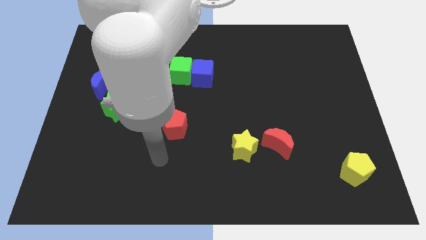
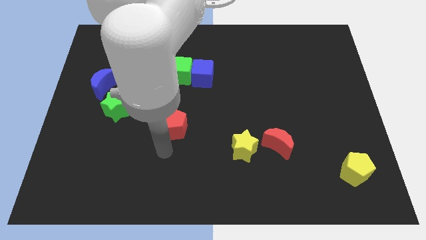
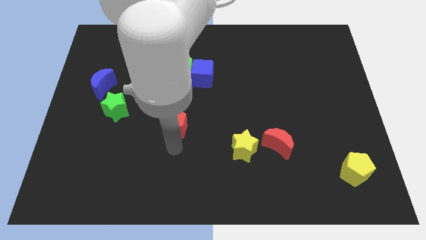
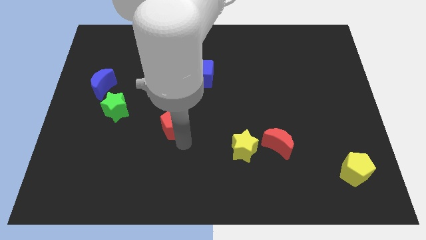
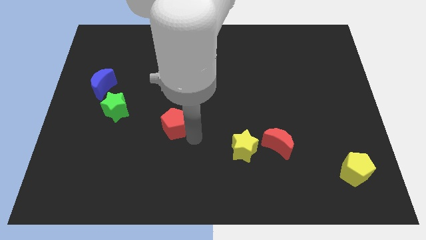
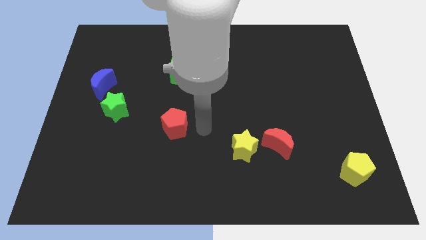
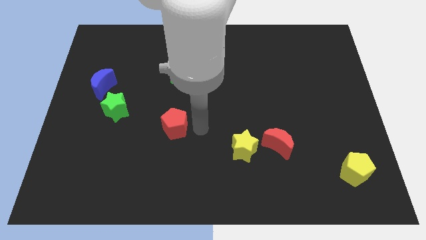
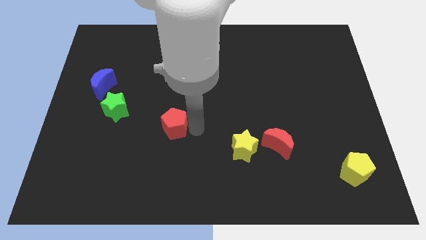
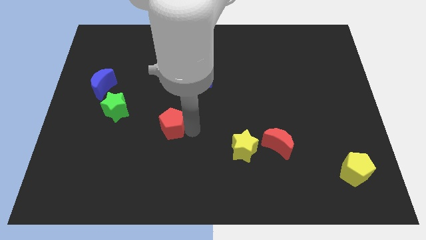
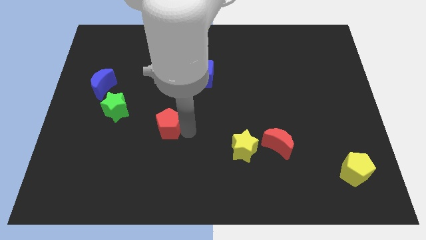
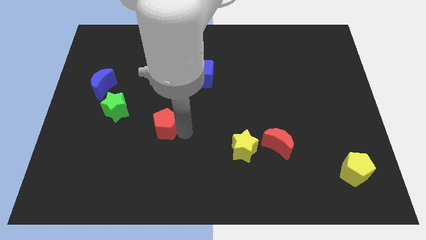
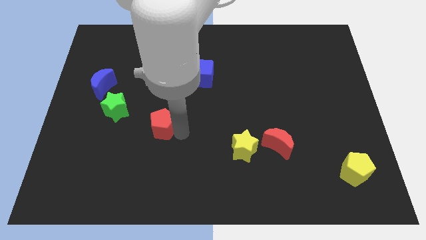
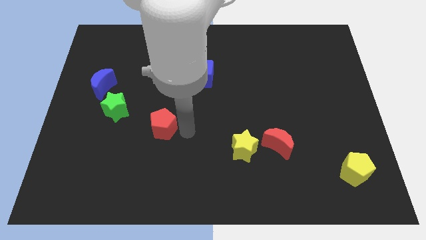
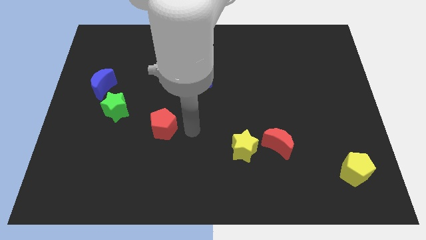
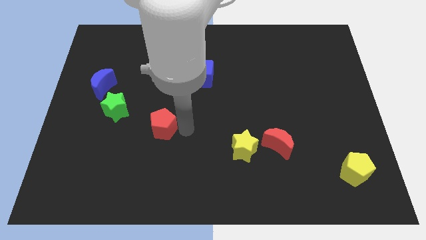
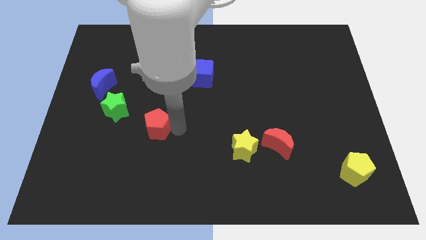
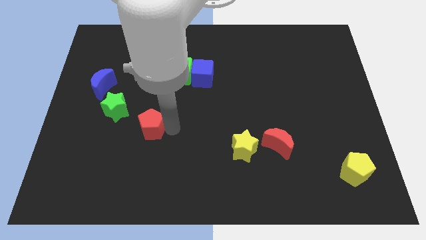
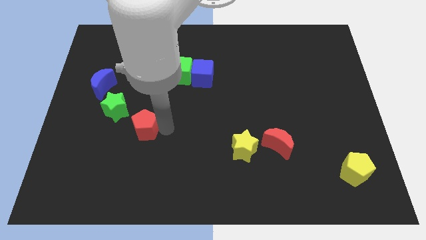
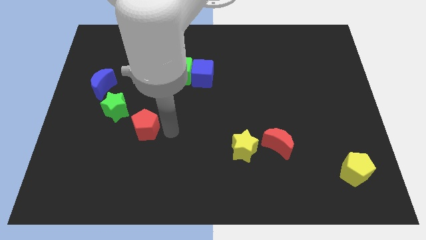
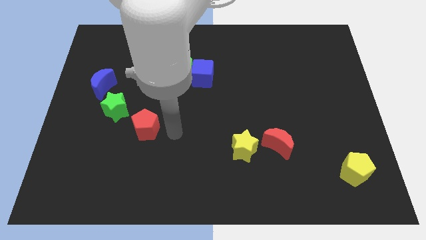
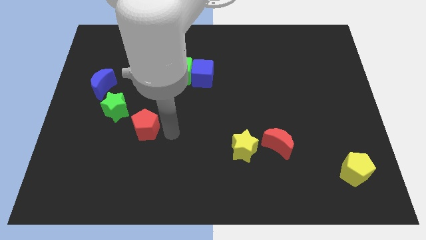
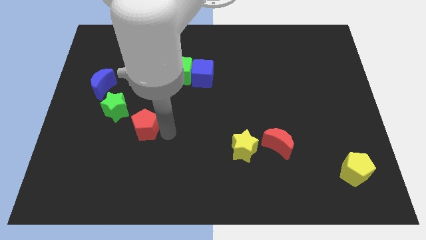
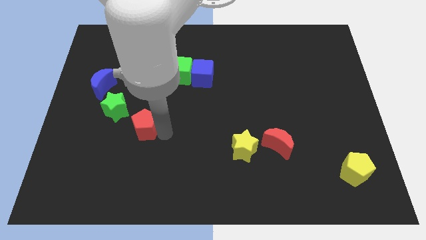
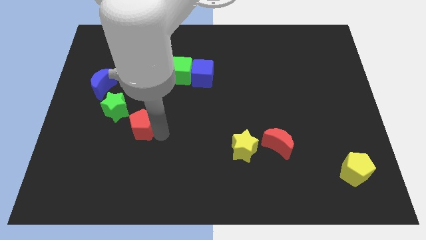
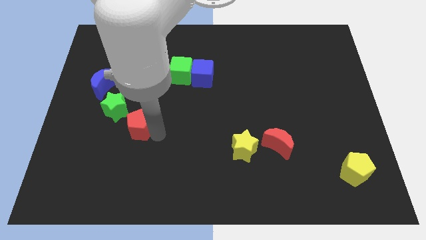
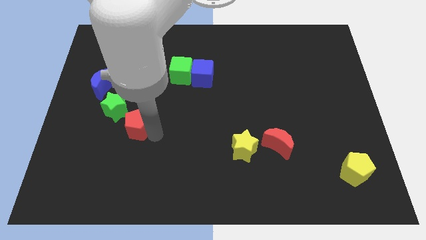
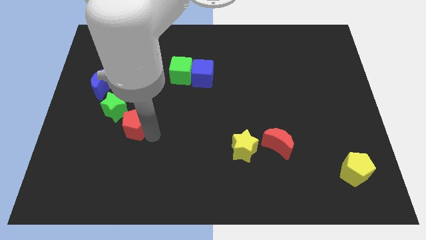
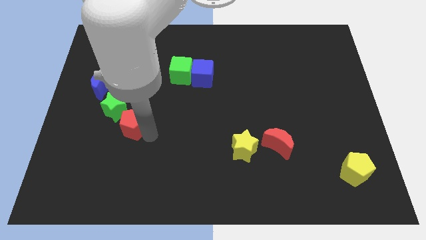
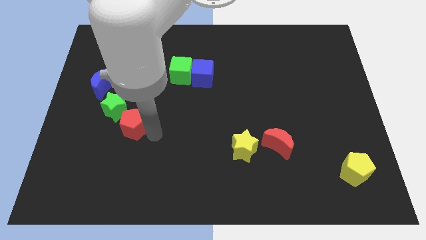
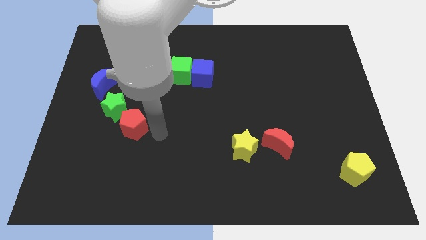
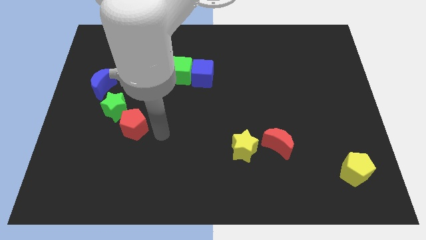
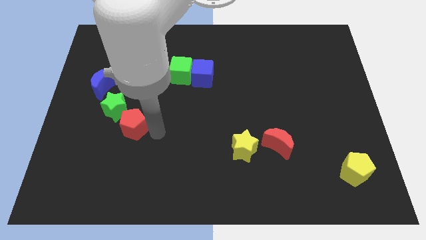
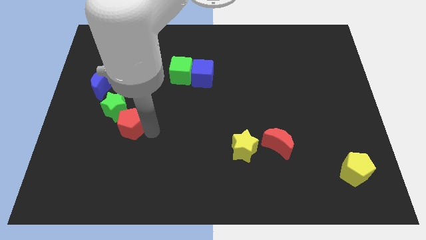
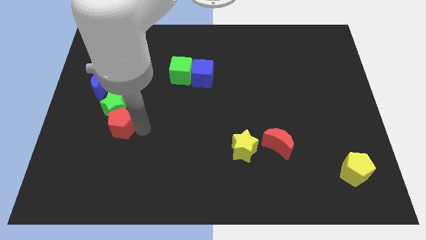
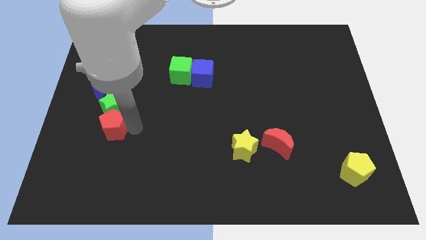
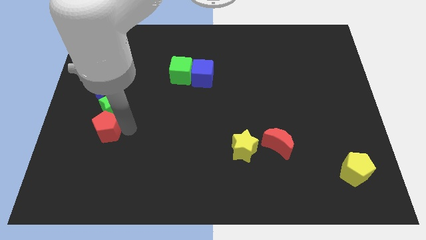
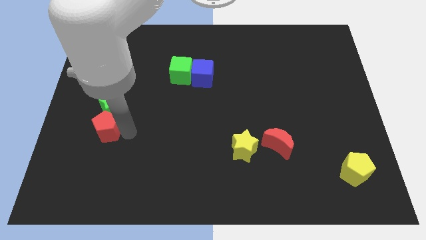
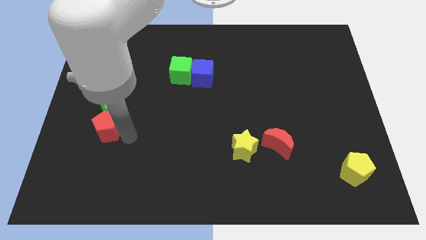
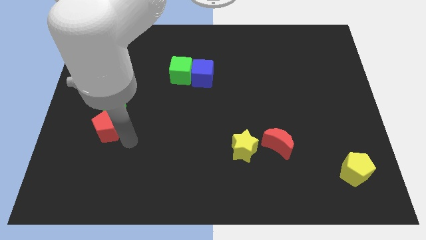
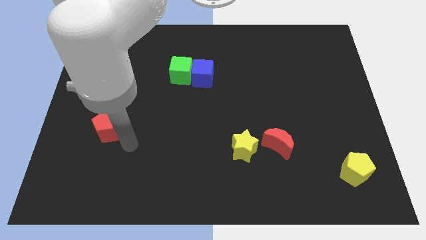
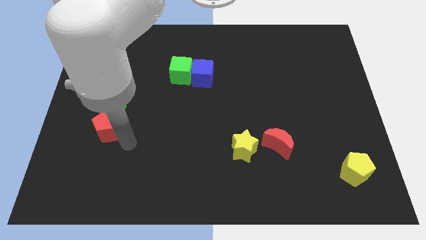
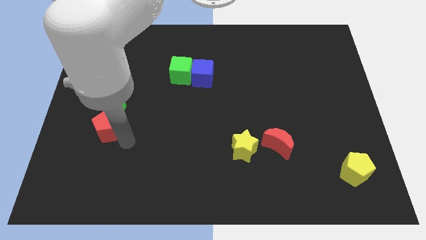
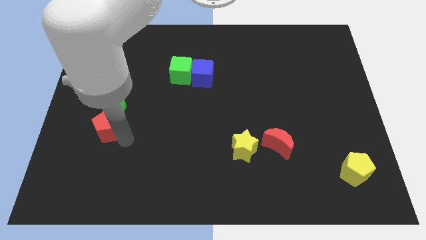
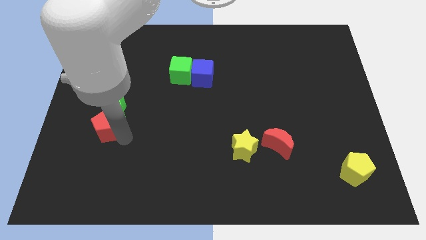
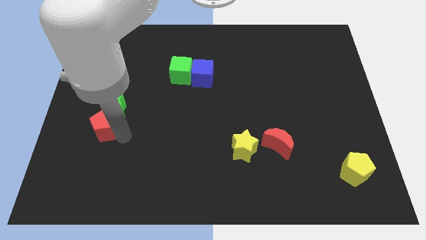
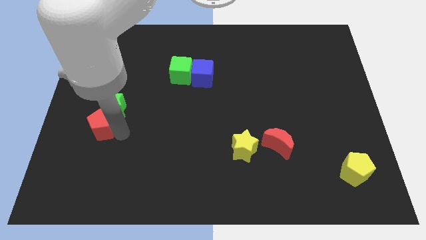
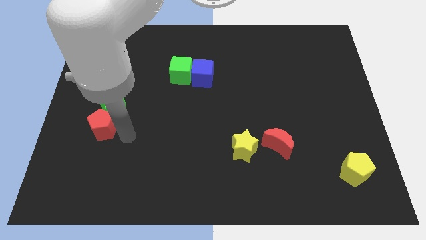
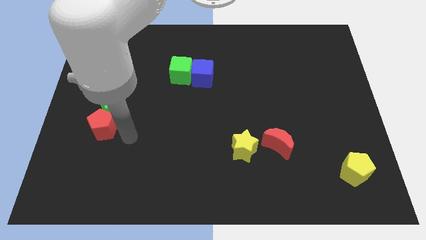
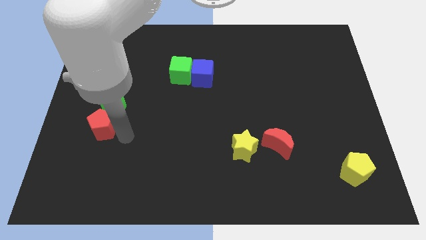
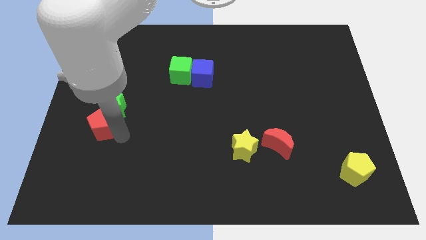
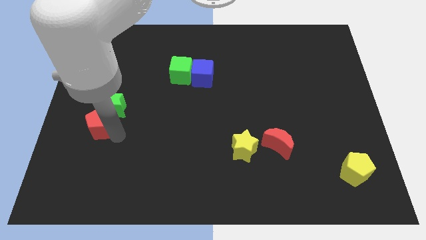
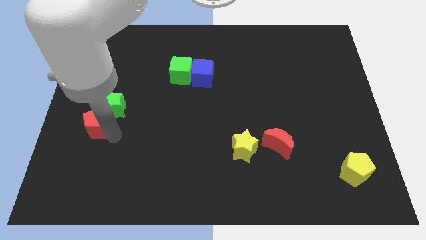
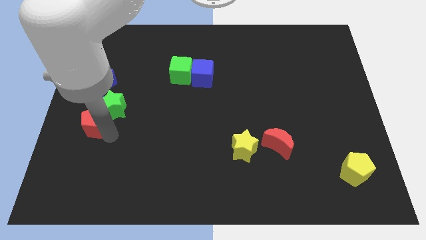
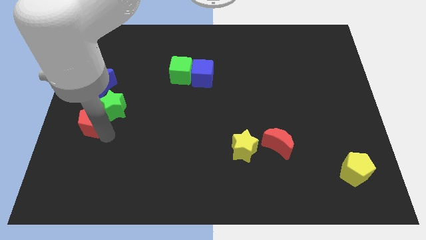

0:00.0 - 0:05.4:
slide the red pentagon to the left side
